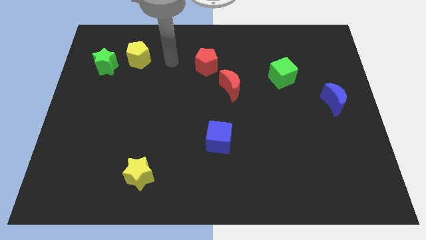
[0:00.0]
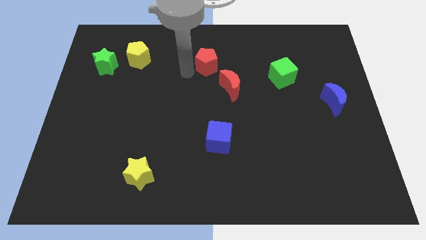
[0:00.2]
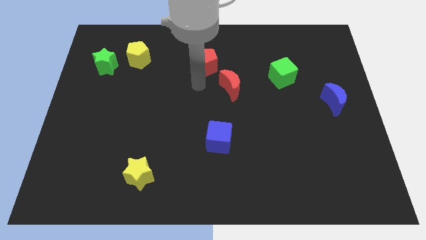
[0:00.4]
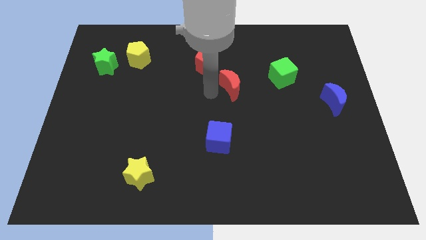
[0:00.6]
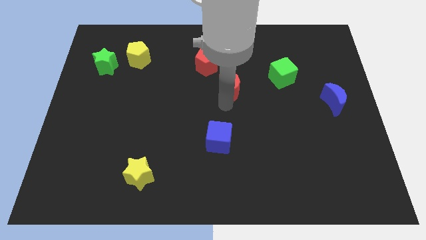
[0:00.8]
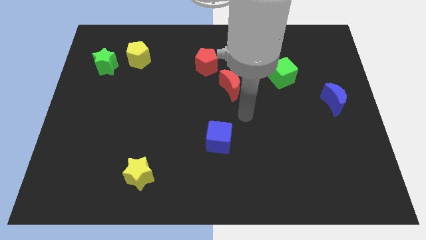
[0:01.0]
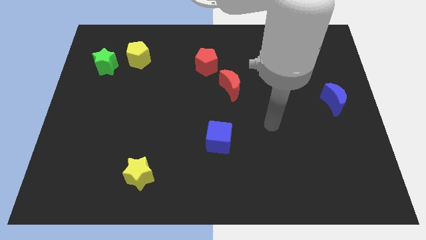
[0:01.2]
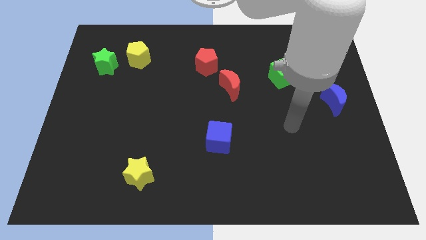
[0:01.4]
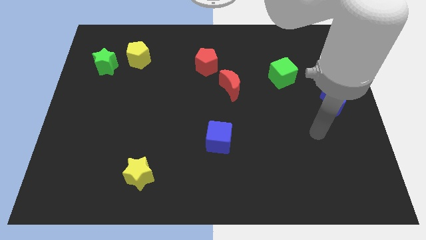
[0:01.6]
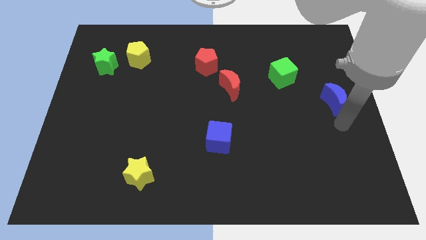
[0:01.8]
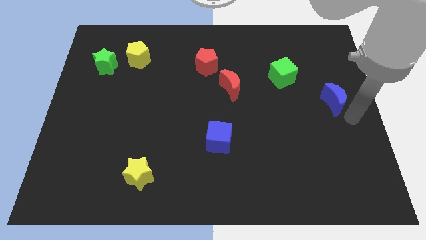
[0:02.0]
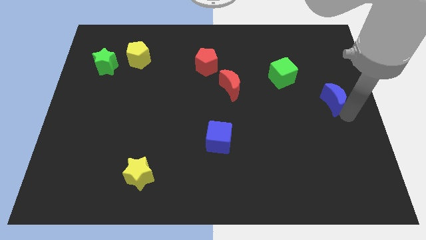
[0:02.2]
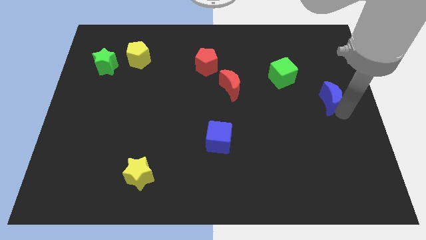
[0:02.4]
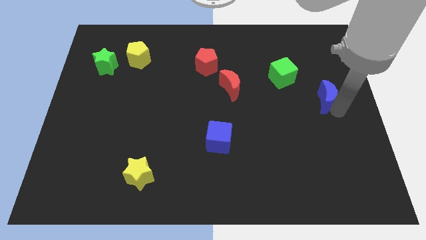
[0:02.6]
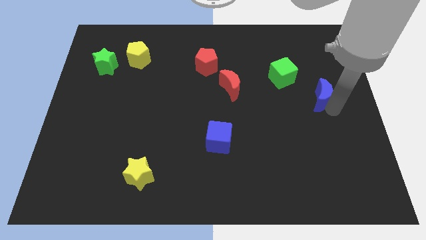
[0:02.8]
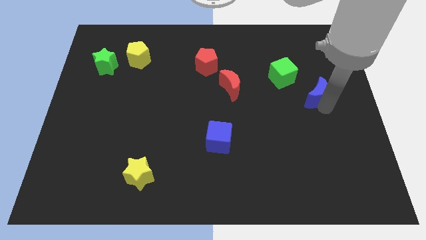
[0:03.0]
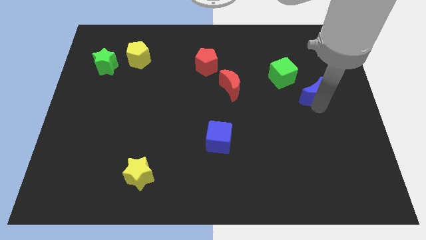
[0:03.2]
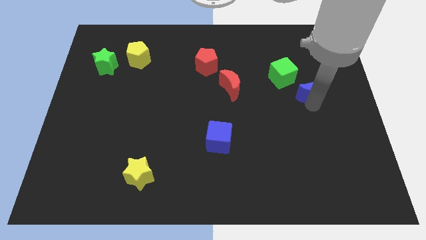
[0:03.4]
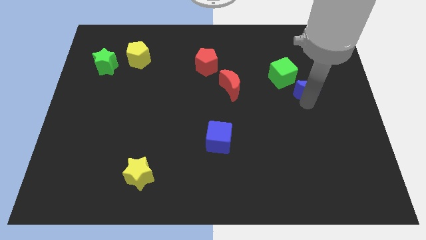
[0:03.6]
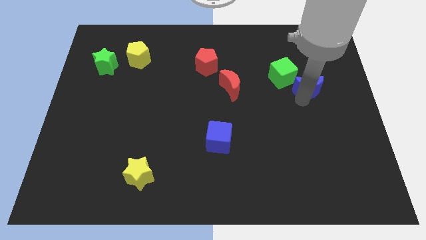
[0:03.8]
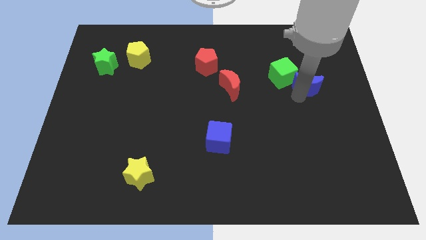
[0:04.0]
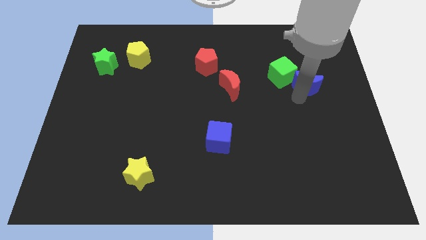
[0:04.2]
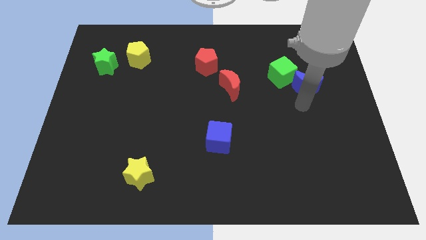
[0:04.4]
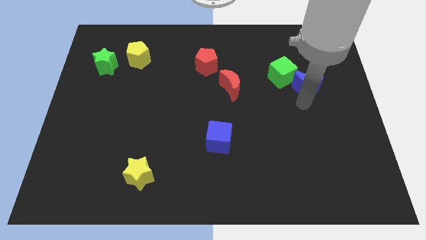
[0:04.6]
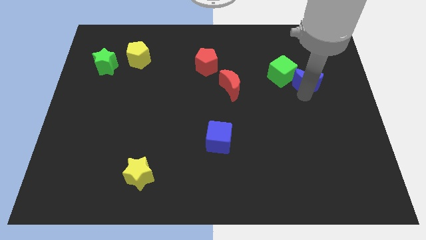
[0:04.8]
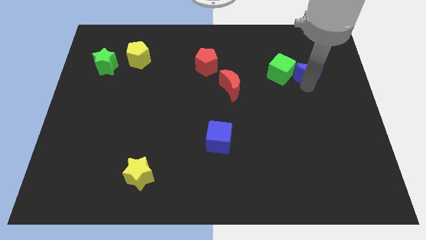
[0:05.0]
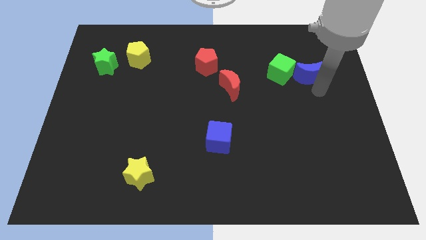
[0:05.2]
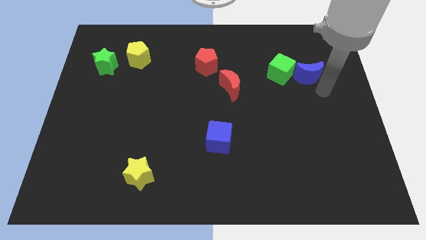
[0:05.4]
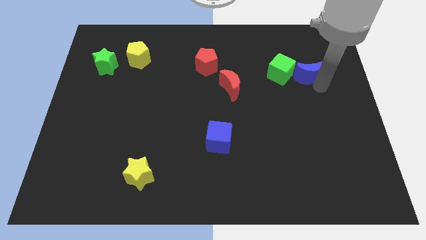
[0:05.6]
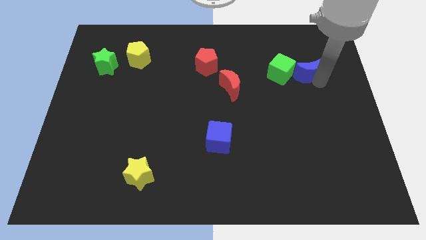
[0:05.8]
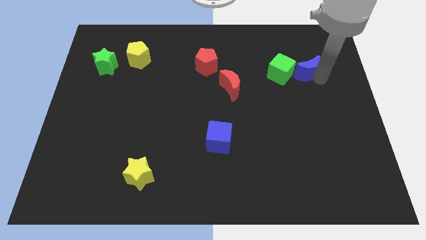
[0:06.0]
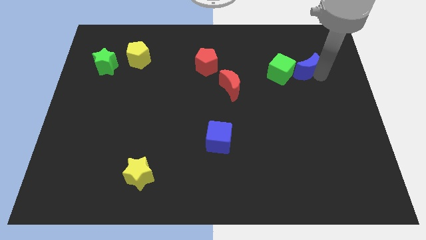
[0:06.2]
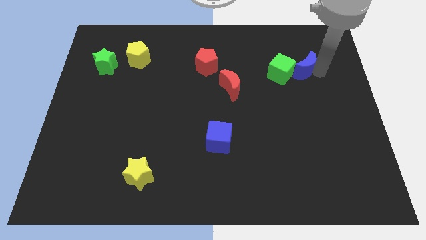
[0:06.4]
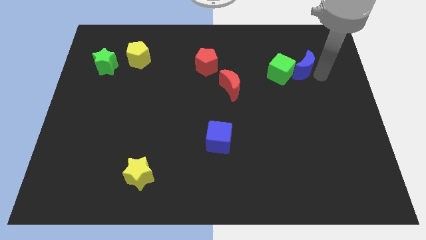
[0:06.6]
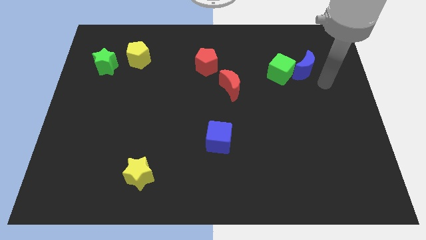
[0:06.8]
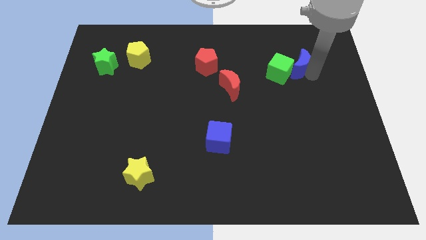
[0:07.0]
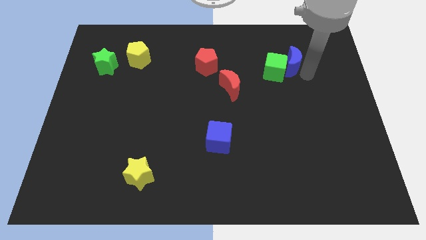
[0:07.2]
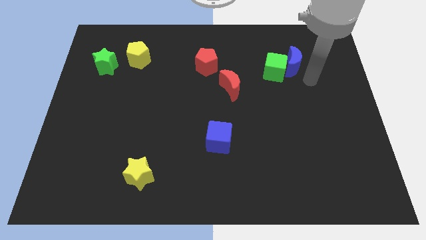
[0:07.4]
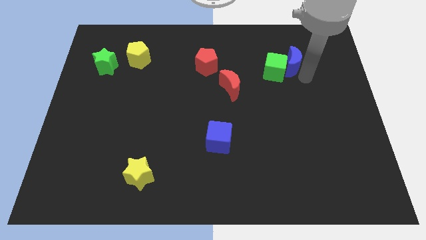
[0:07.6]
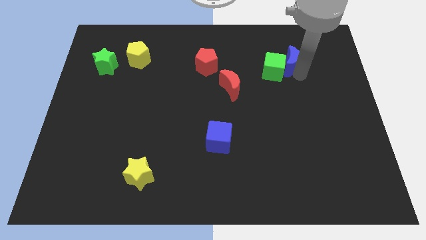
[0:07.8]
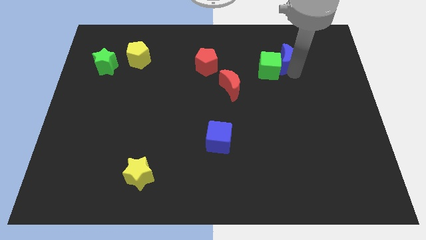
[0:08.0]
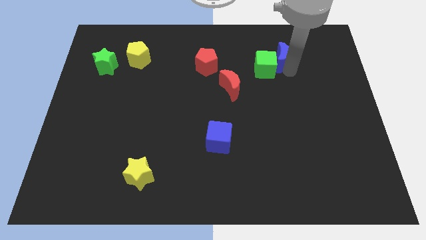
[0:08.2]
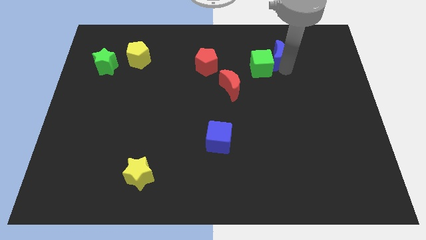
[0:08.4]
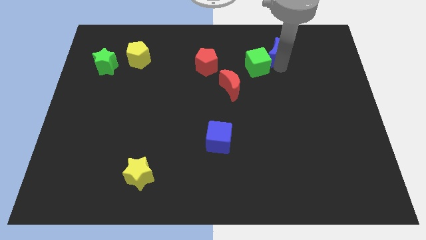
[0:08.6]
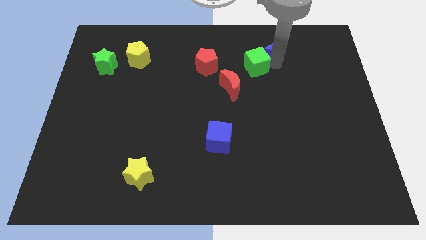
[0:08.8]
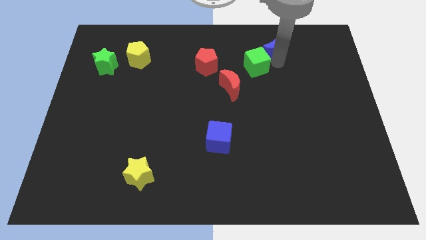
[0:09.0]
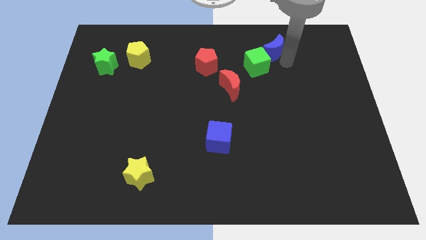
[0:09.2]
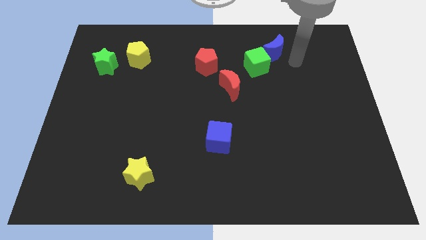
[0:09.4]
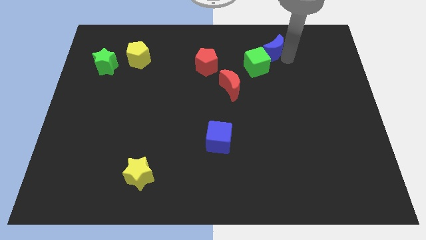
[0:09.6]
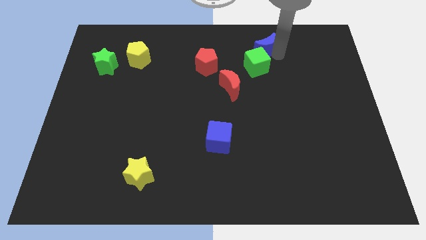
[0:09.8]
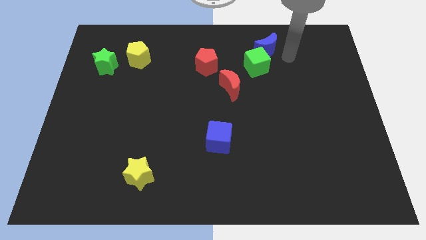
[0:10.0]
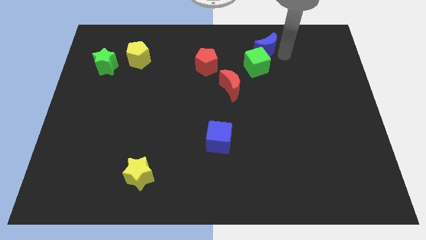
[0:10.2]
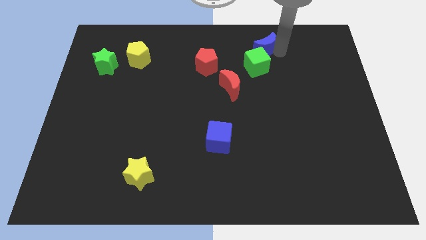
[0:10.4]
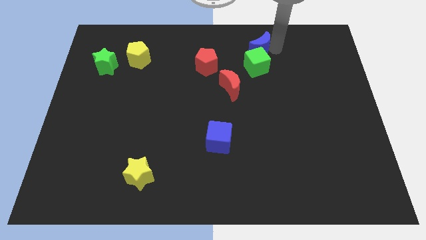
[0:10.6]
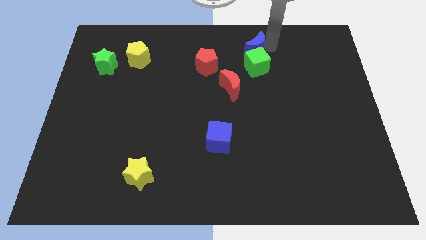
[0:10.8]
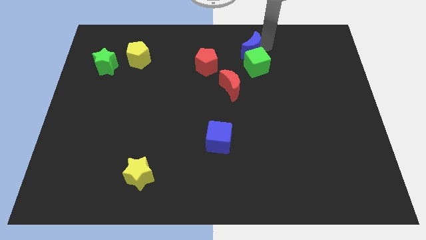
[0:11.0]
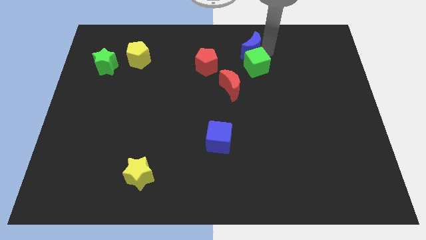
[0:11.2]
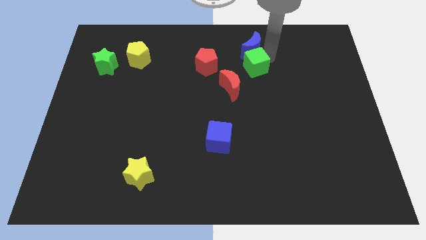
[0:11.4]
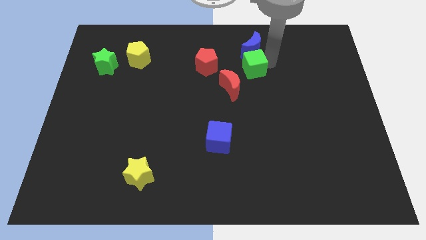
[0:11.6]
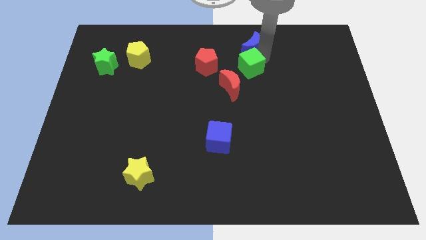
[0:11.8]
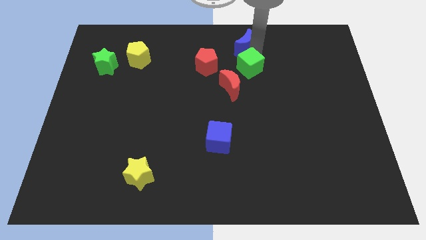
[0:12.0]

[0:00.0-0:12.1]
move the blue moon to the top side
